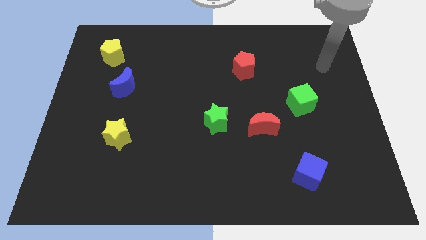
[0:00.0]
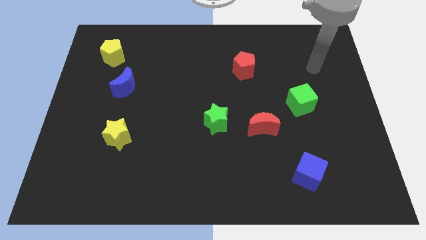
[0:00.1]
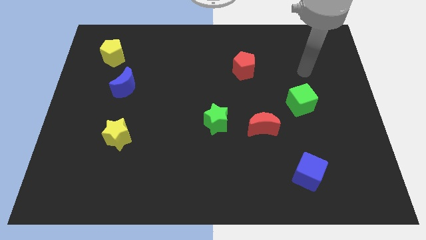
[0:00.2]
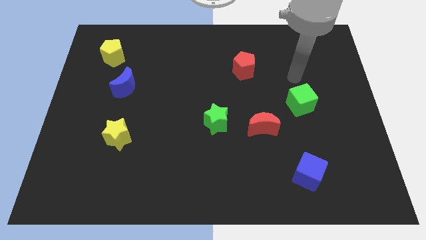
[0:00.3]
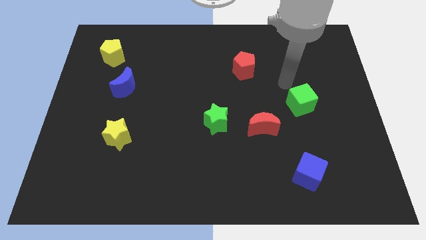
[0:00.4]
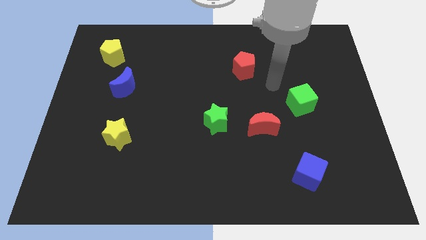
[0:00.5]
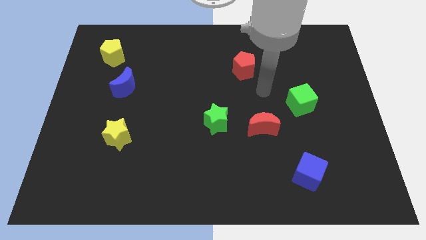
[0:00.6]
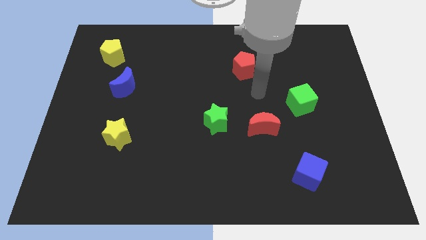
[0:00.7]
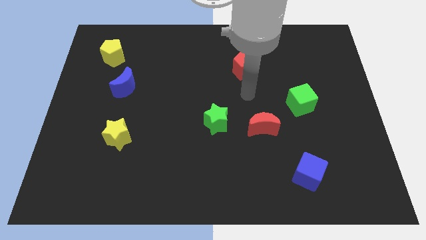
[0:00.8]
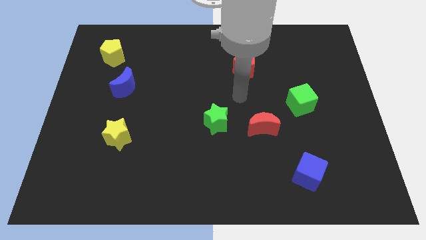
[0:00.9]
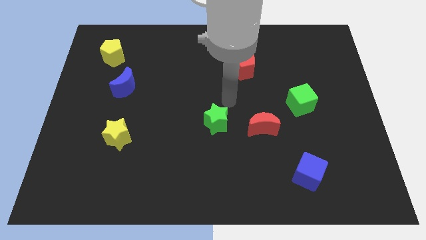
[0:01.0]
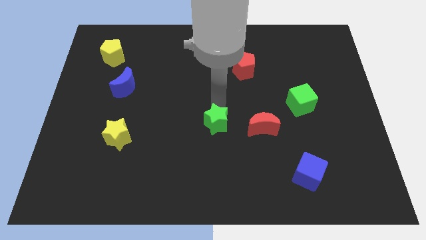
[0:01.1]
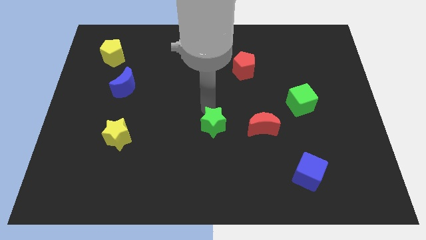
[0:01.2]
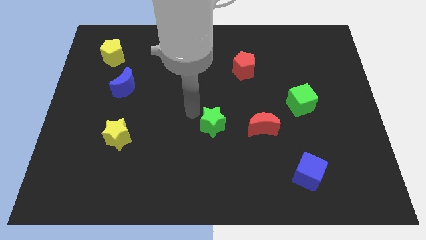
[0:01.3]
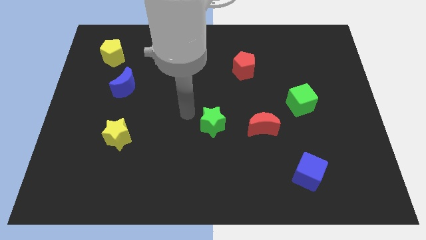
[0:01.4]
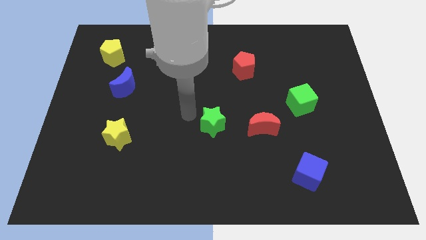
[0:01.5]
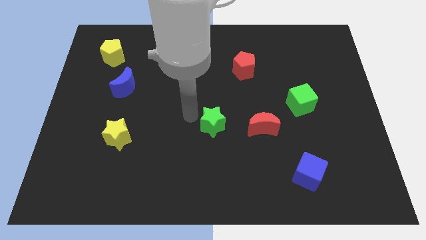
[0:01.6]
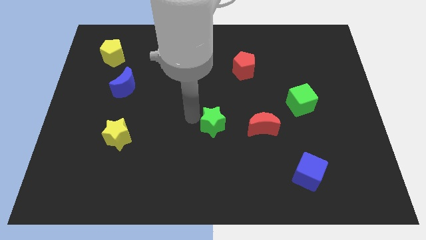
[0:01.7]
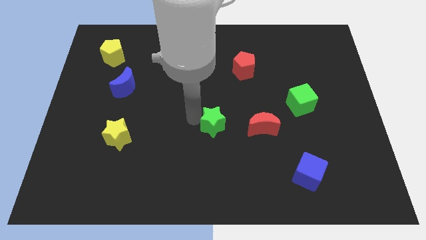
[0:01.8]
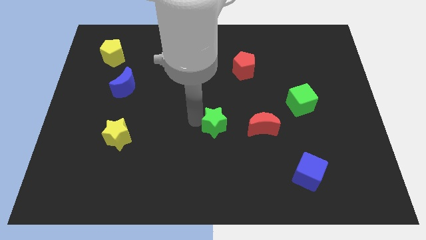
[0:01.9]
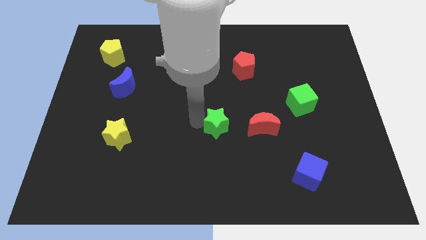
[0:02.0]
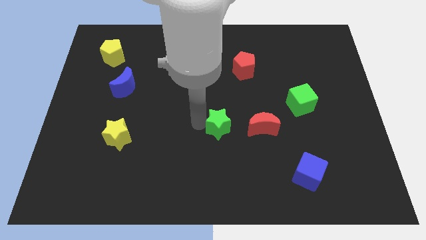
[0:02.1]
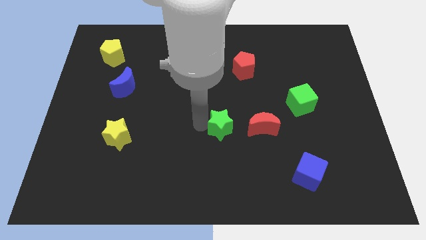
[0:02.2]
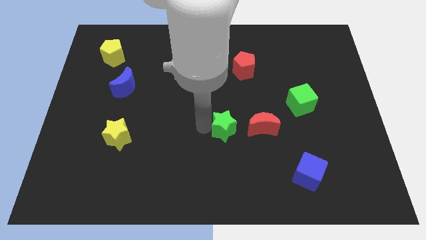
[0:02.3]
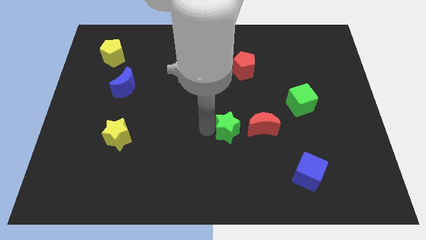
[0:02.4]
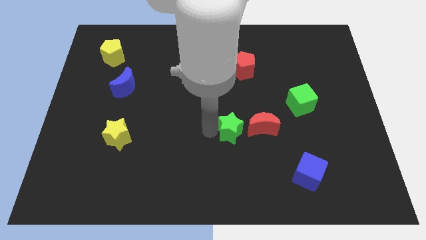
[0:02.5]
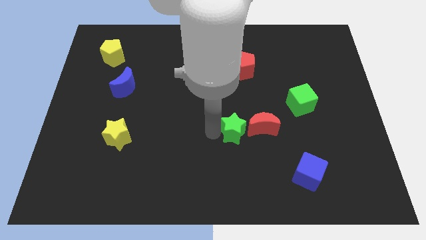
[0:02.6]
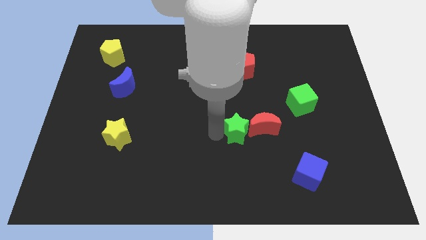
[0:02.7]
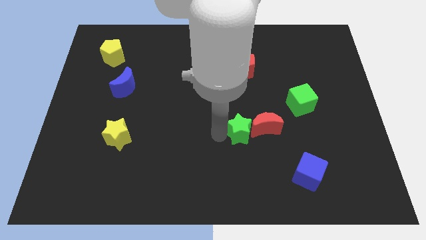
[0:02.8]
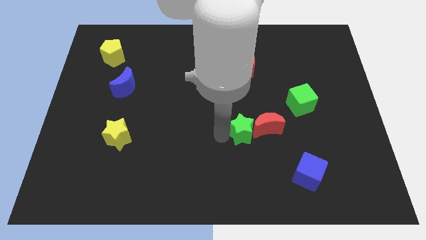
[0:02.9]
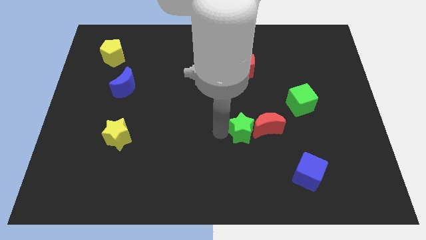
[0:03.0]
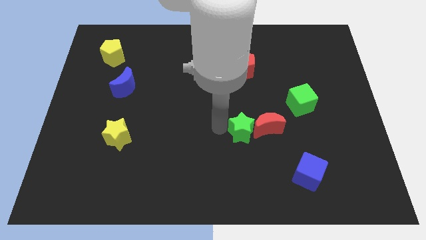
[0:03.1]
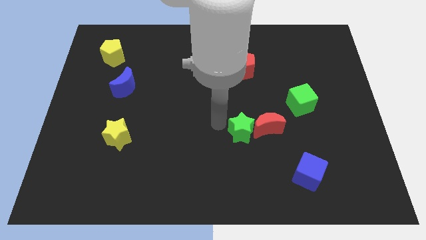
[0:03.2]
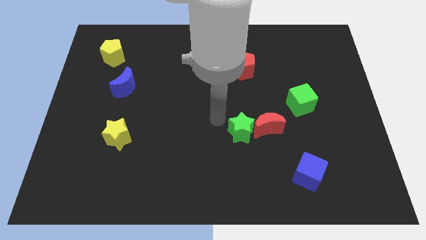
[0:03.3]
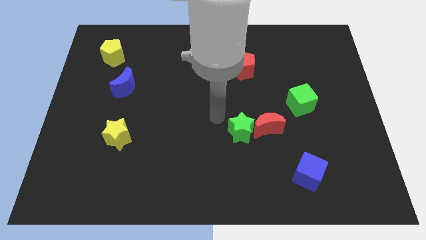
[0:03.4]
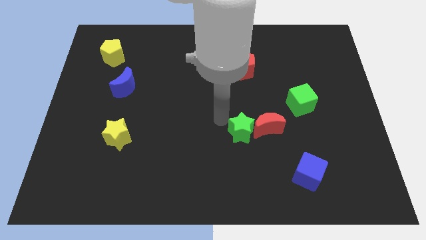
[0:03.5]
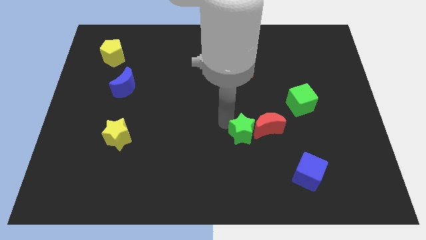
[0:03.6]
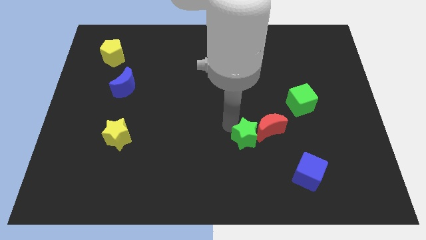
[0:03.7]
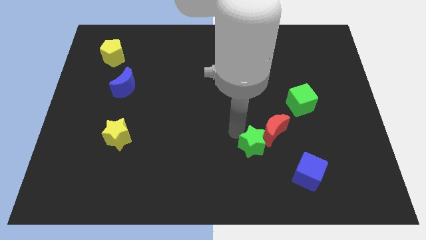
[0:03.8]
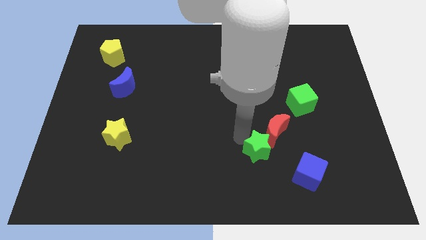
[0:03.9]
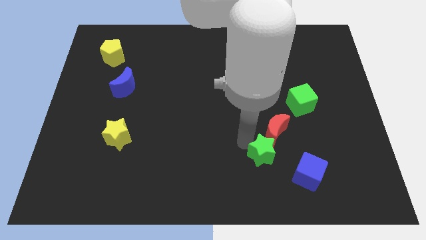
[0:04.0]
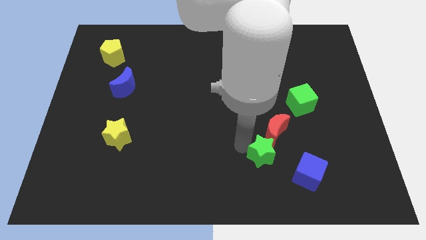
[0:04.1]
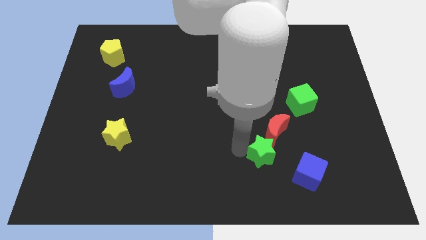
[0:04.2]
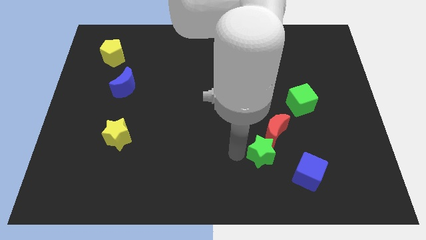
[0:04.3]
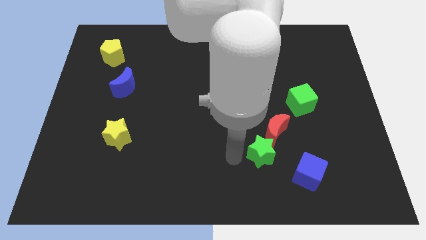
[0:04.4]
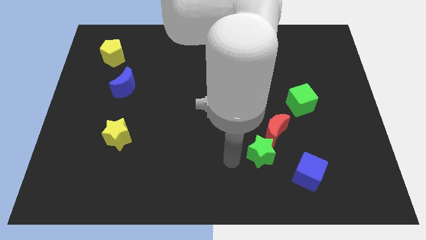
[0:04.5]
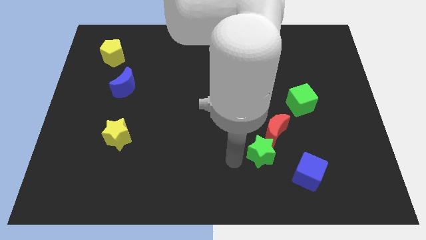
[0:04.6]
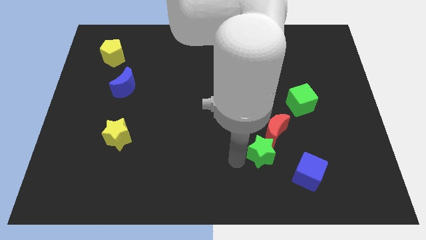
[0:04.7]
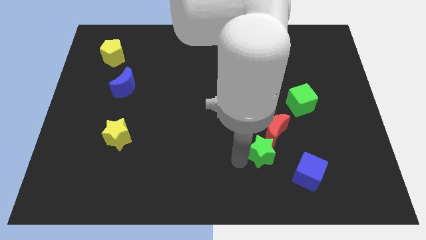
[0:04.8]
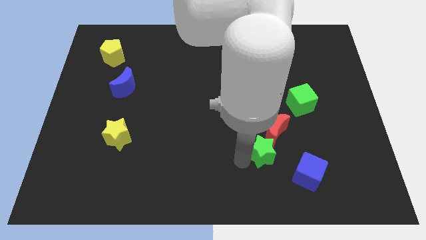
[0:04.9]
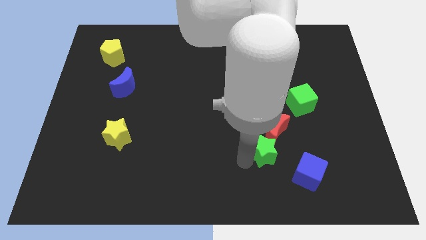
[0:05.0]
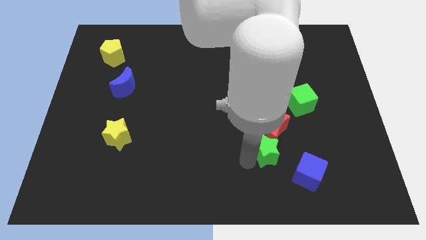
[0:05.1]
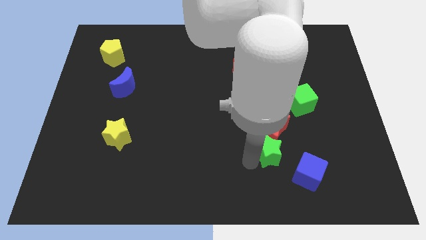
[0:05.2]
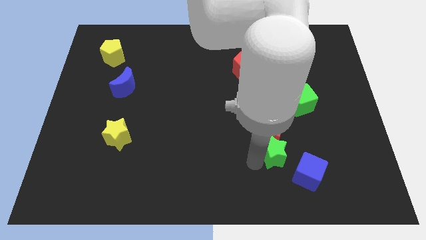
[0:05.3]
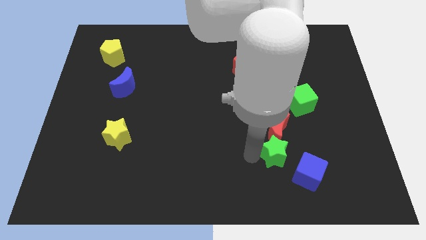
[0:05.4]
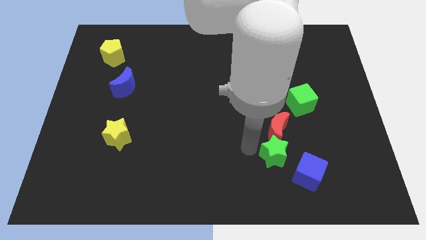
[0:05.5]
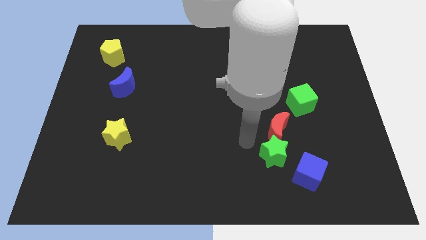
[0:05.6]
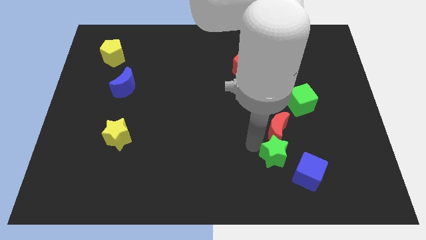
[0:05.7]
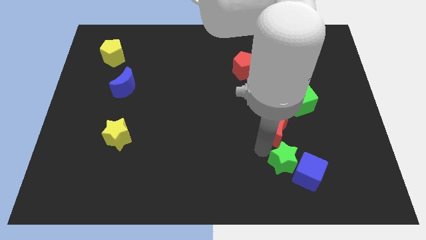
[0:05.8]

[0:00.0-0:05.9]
push the green star towards the blue cube

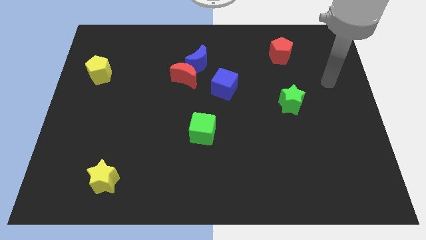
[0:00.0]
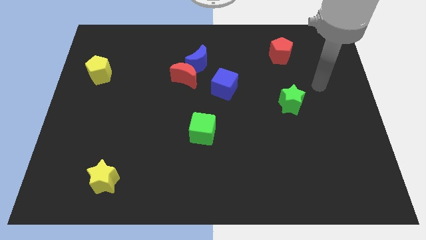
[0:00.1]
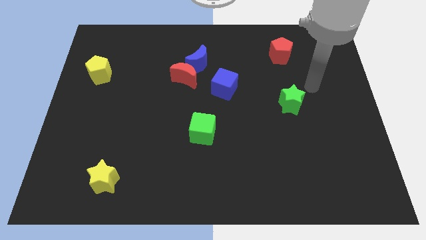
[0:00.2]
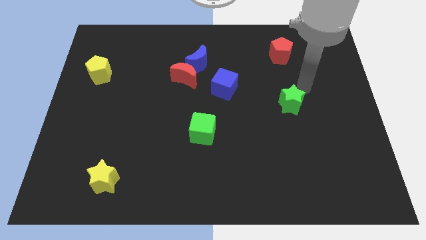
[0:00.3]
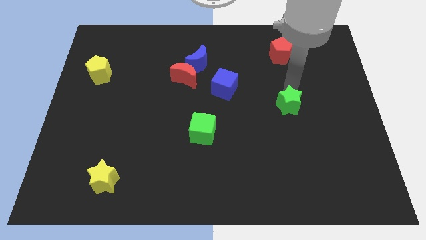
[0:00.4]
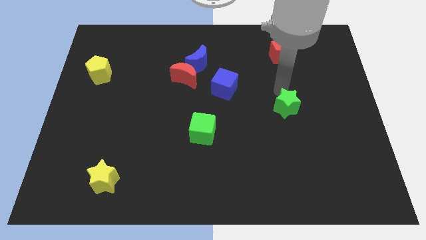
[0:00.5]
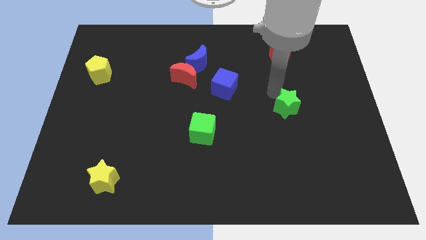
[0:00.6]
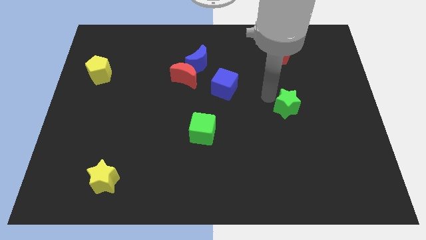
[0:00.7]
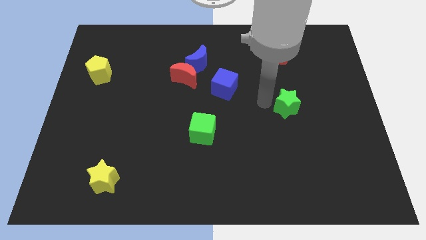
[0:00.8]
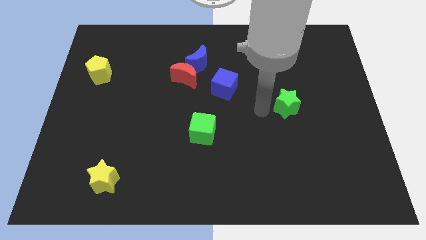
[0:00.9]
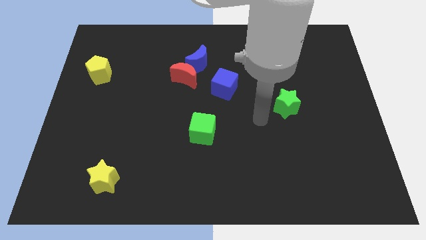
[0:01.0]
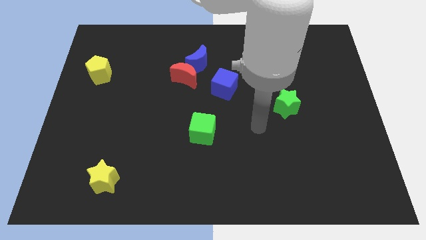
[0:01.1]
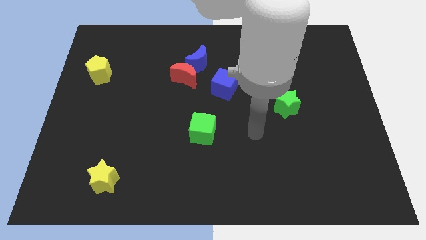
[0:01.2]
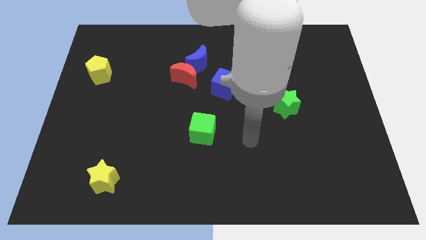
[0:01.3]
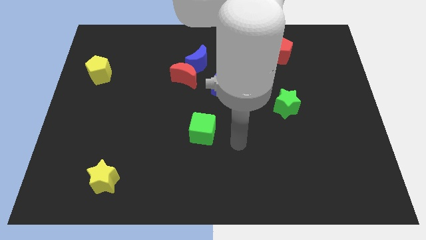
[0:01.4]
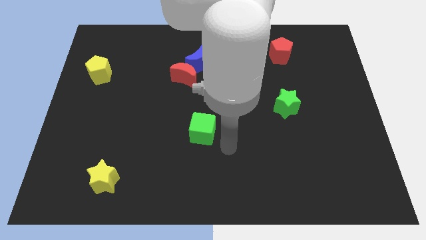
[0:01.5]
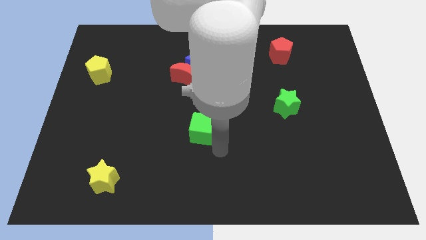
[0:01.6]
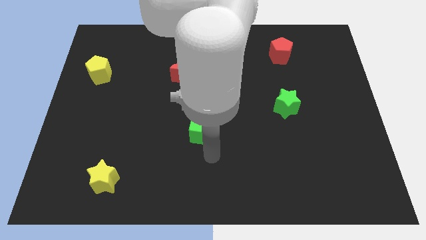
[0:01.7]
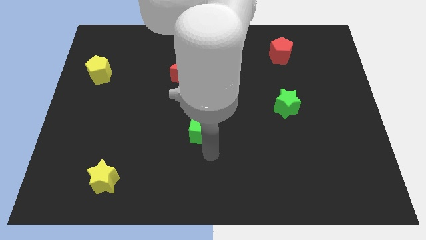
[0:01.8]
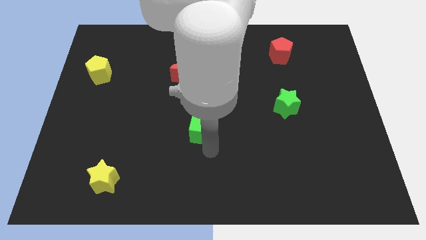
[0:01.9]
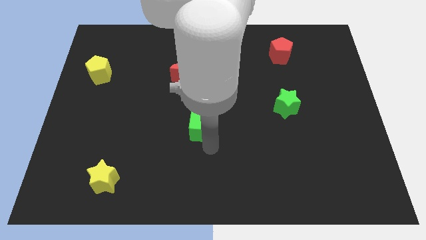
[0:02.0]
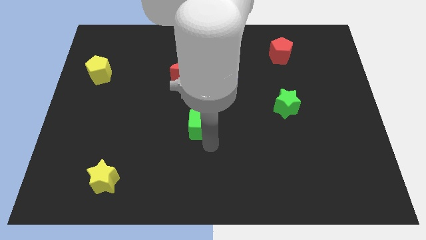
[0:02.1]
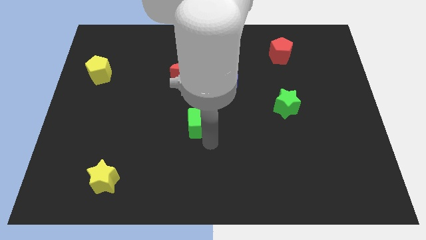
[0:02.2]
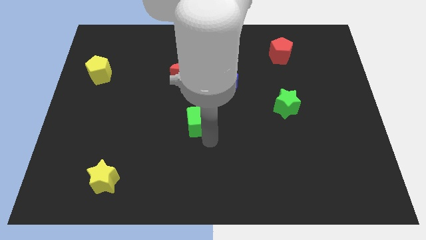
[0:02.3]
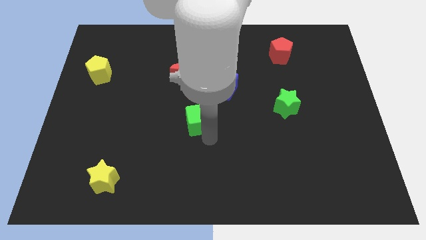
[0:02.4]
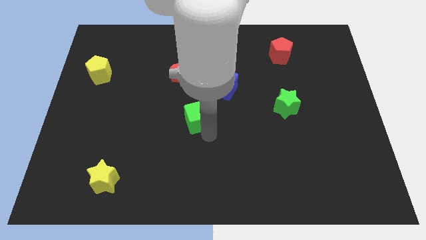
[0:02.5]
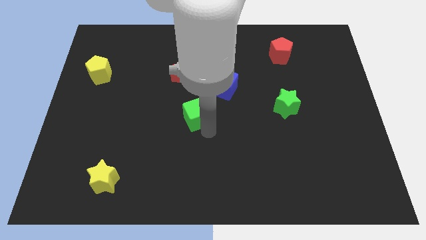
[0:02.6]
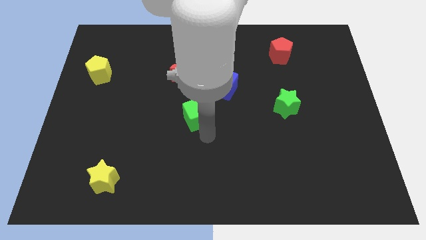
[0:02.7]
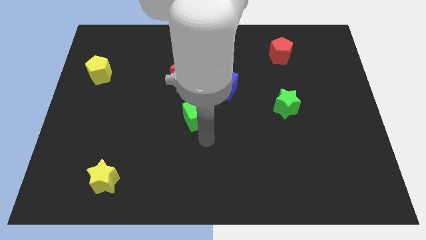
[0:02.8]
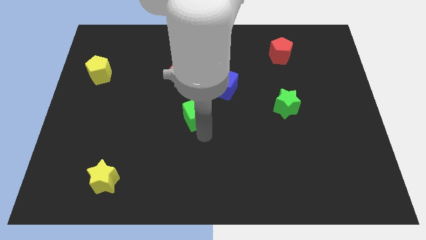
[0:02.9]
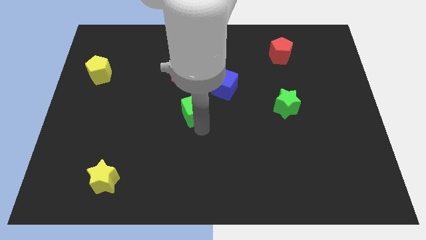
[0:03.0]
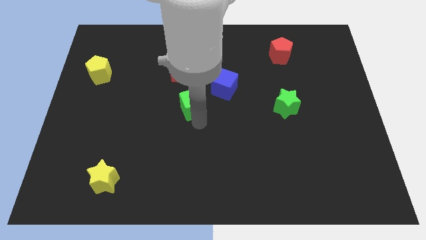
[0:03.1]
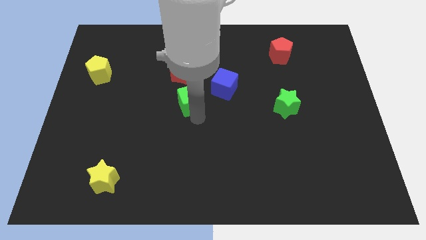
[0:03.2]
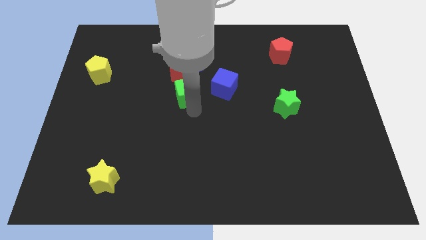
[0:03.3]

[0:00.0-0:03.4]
put the green cube to the red moon
